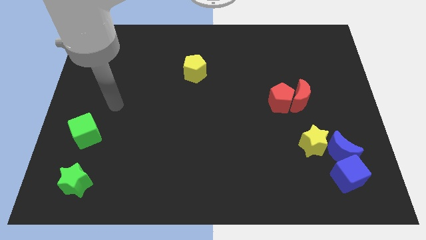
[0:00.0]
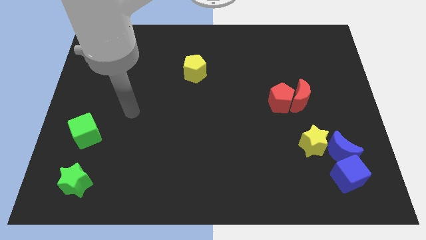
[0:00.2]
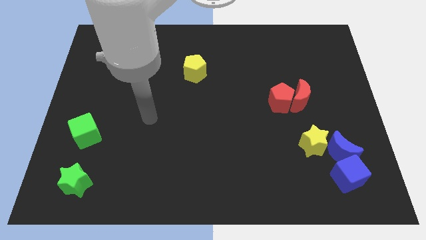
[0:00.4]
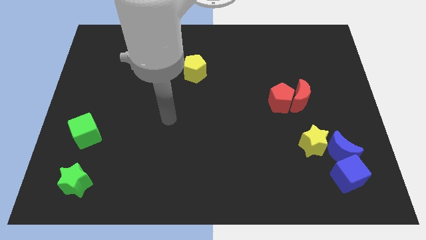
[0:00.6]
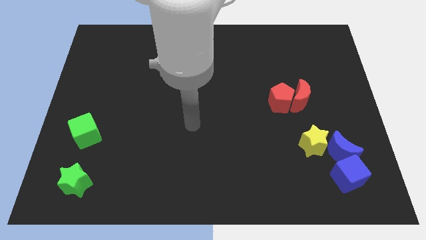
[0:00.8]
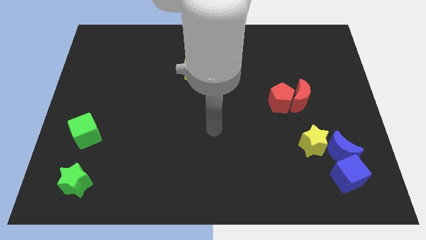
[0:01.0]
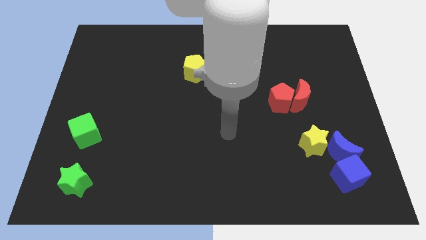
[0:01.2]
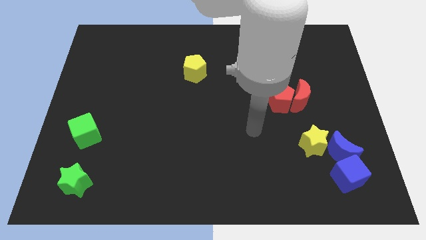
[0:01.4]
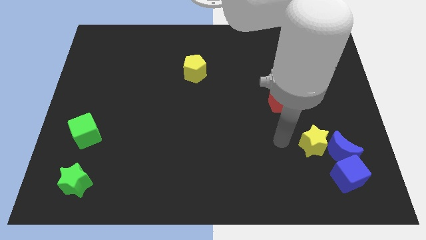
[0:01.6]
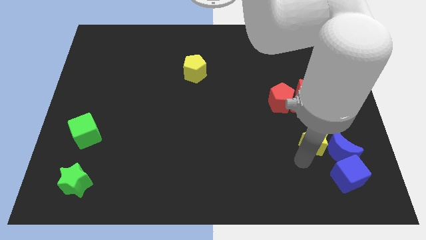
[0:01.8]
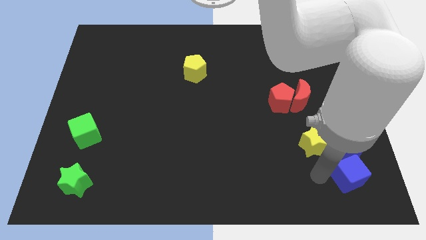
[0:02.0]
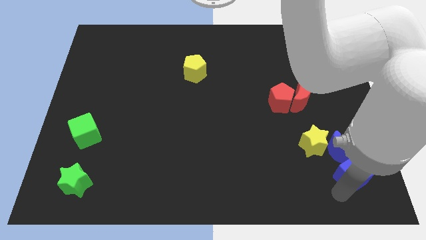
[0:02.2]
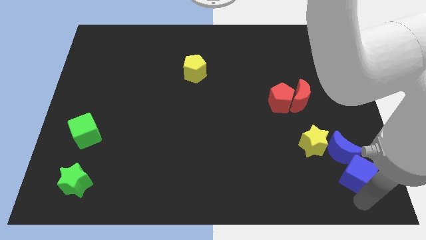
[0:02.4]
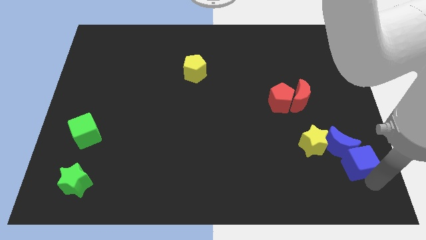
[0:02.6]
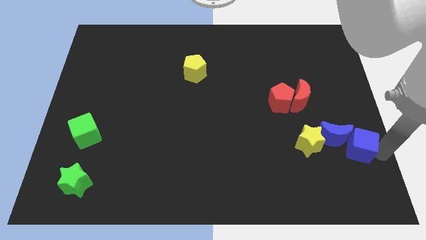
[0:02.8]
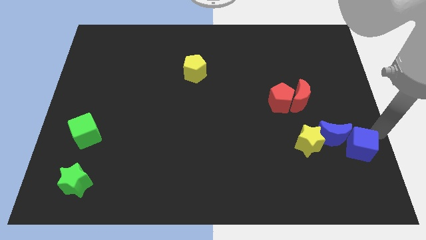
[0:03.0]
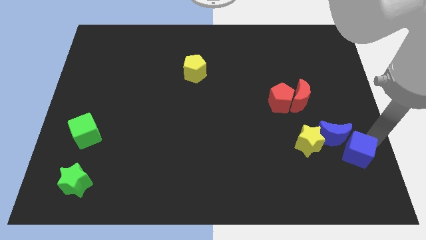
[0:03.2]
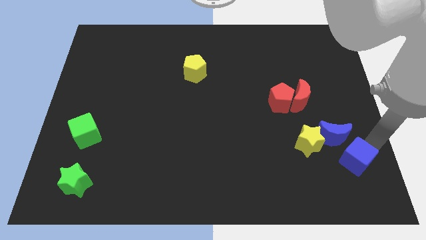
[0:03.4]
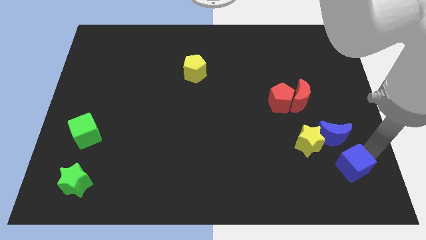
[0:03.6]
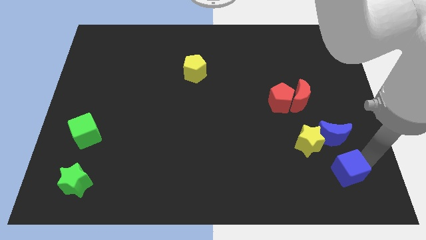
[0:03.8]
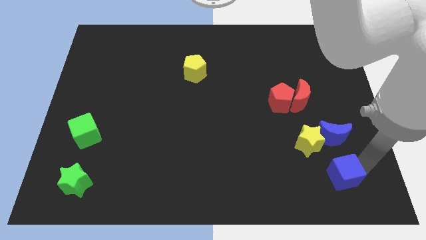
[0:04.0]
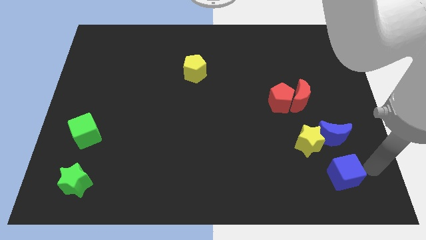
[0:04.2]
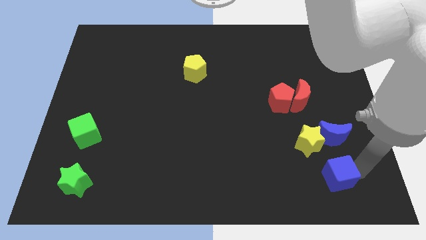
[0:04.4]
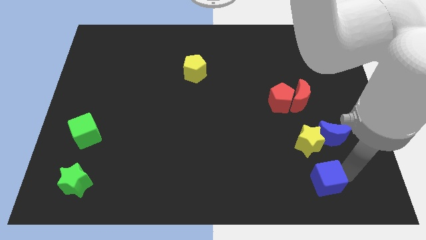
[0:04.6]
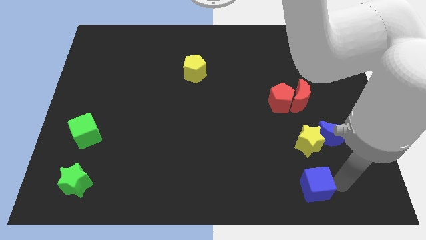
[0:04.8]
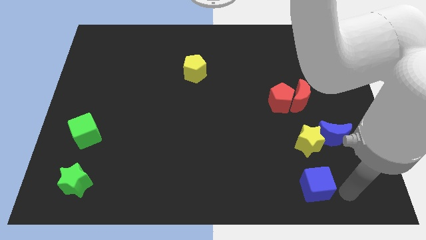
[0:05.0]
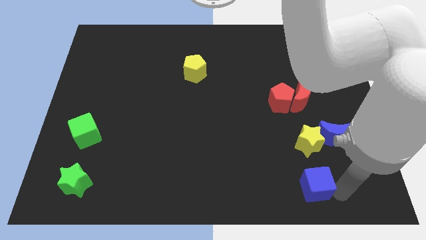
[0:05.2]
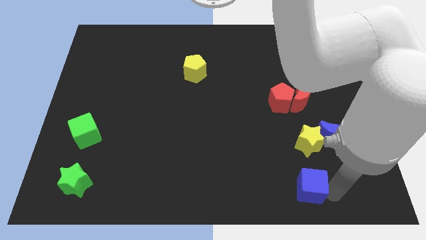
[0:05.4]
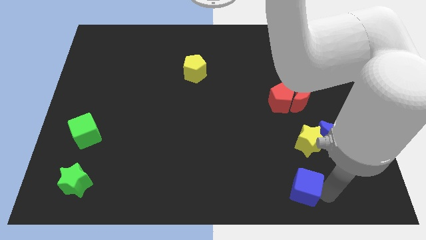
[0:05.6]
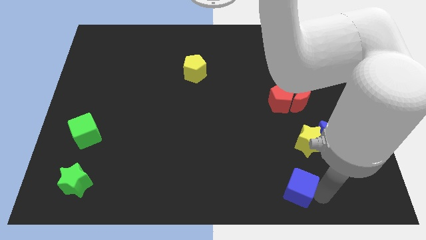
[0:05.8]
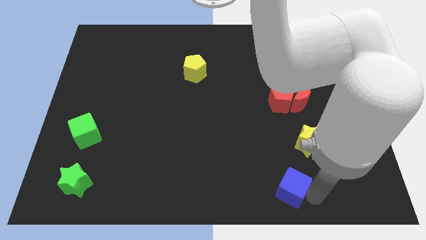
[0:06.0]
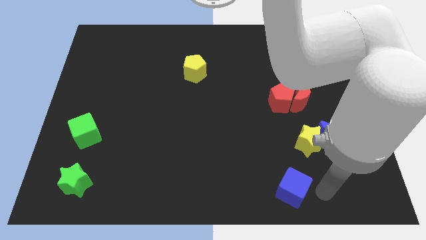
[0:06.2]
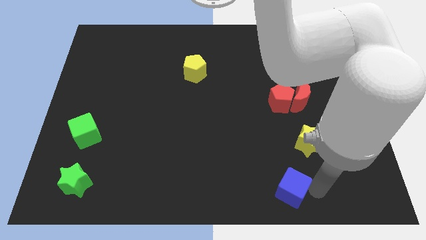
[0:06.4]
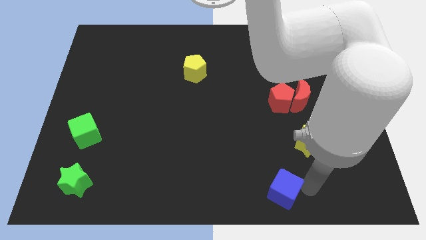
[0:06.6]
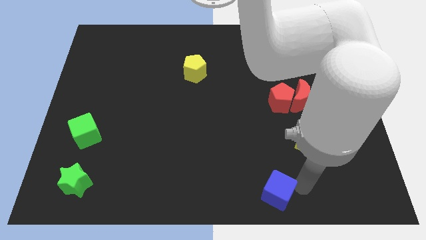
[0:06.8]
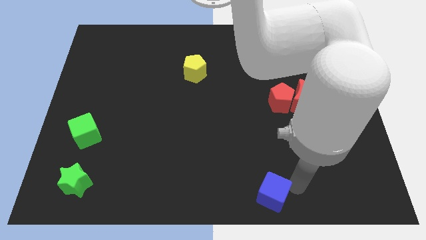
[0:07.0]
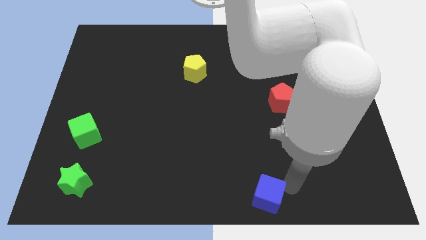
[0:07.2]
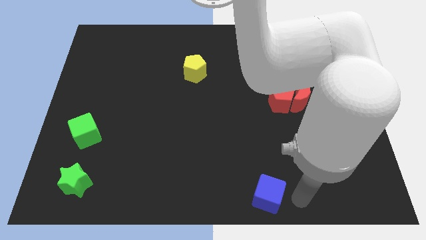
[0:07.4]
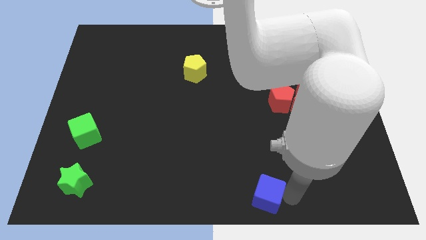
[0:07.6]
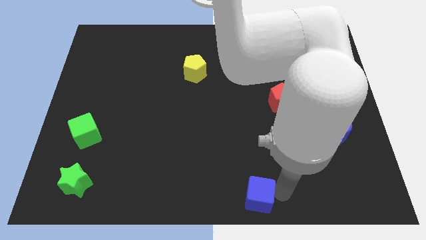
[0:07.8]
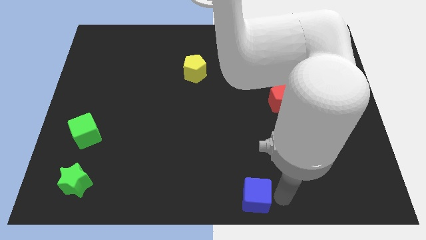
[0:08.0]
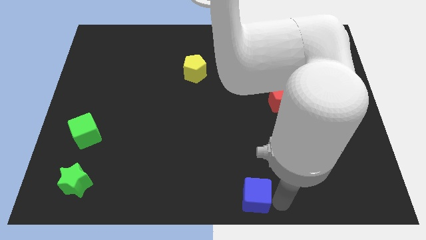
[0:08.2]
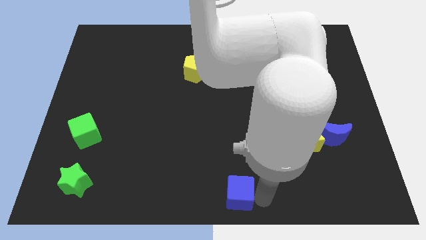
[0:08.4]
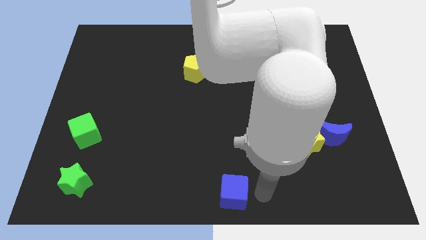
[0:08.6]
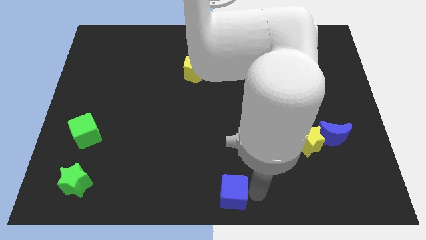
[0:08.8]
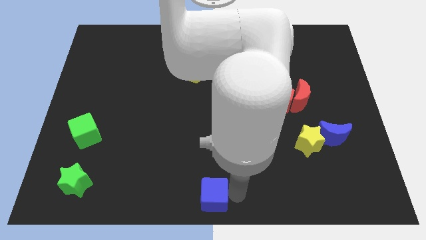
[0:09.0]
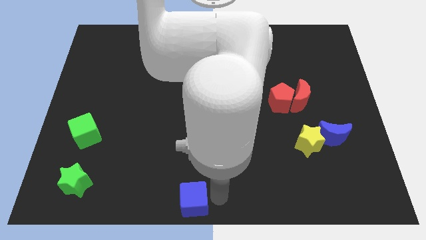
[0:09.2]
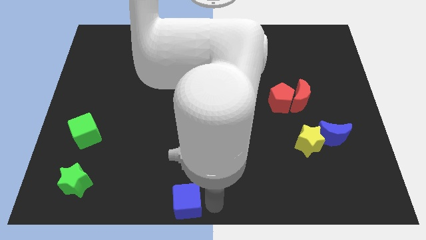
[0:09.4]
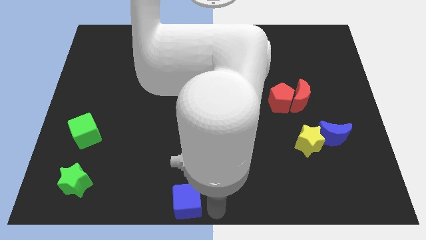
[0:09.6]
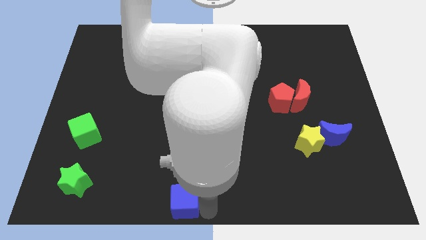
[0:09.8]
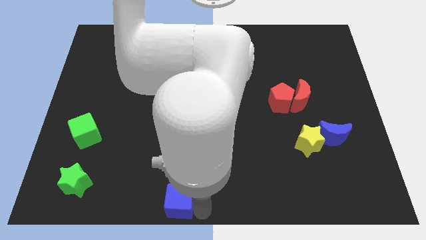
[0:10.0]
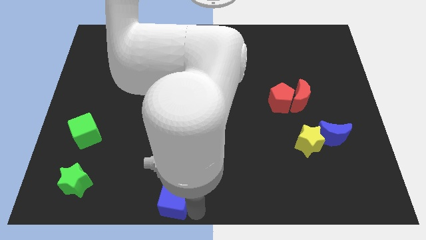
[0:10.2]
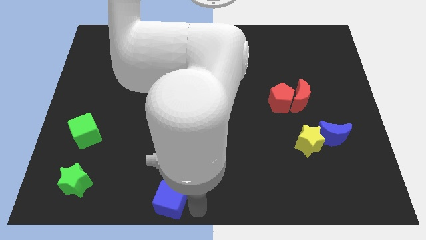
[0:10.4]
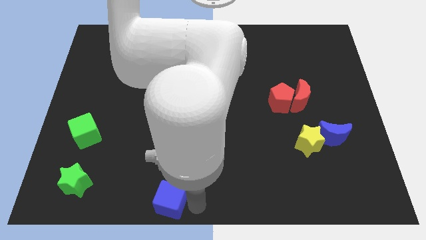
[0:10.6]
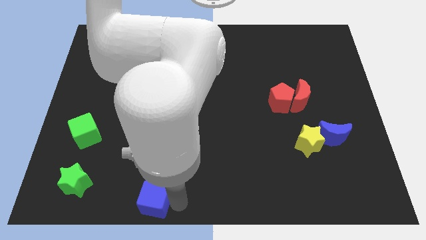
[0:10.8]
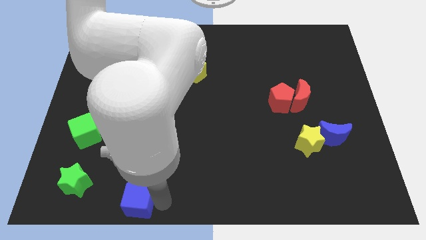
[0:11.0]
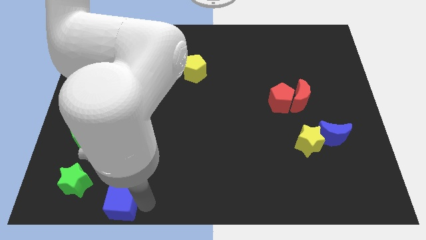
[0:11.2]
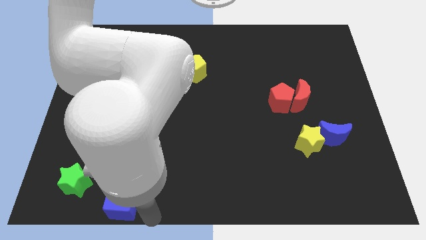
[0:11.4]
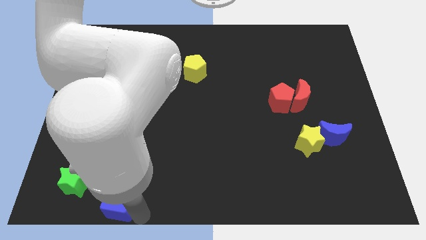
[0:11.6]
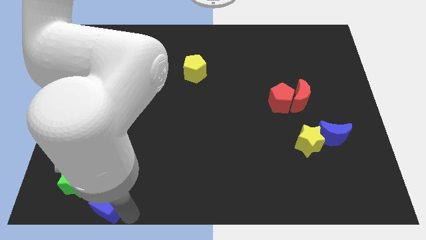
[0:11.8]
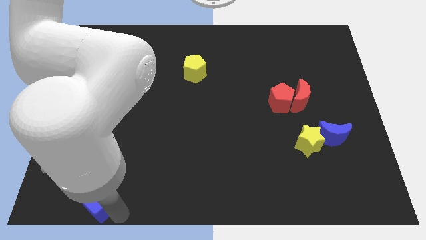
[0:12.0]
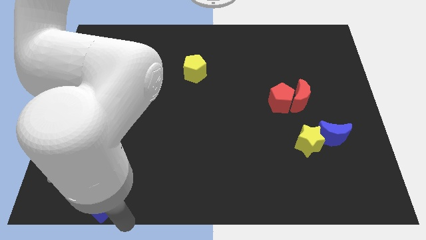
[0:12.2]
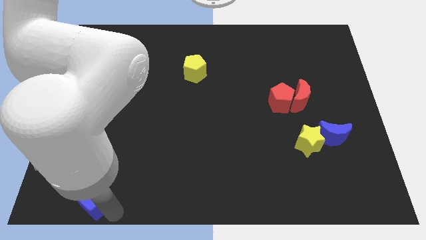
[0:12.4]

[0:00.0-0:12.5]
move the blue cube to the green star

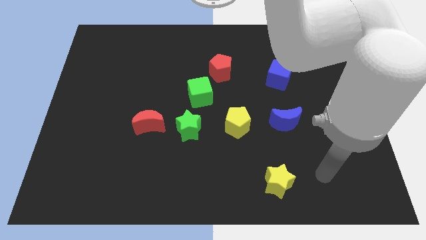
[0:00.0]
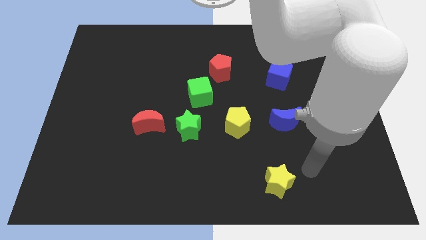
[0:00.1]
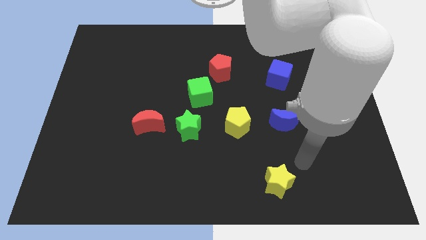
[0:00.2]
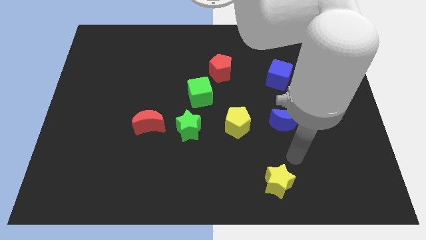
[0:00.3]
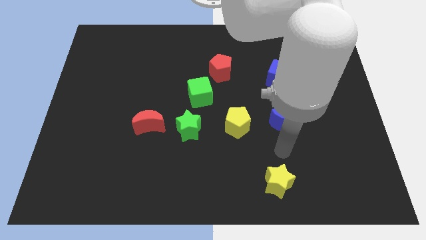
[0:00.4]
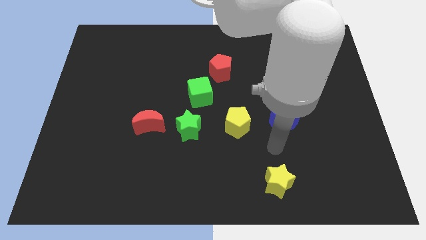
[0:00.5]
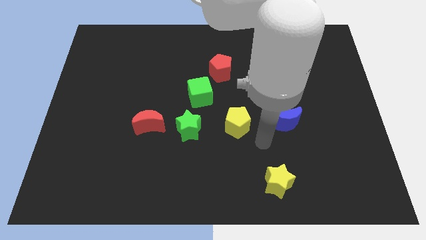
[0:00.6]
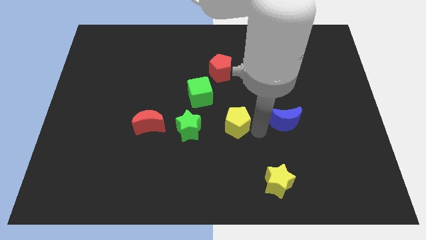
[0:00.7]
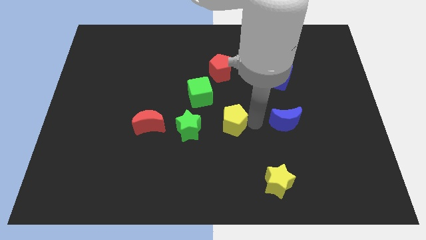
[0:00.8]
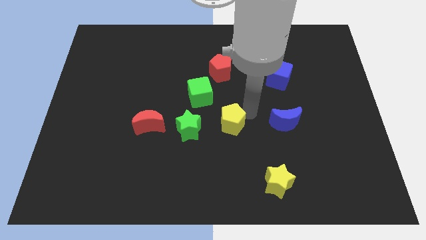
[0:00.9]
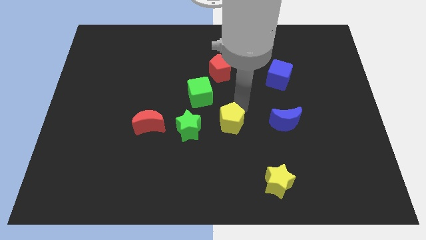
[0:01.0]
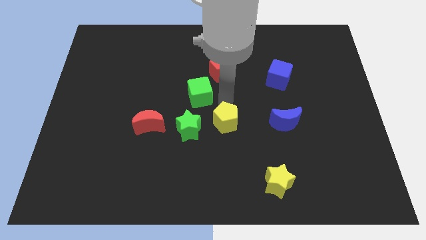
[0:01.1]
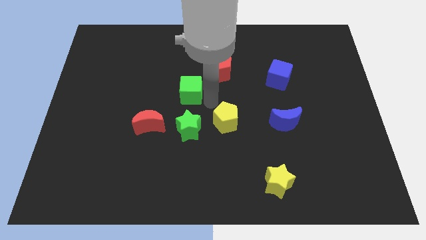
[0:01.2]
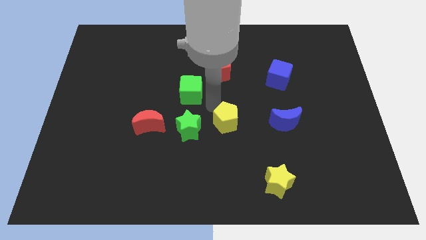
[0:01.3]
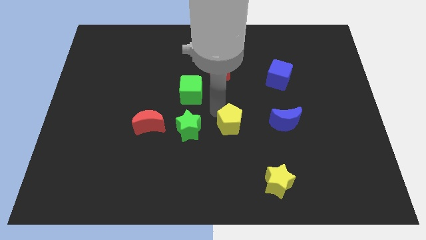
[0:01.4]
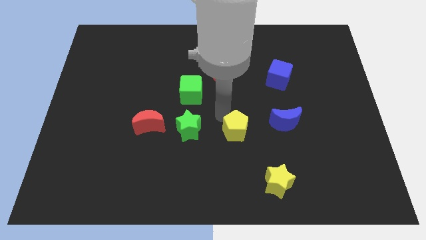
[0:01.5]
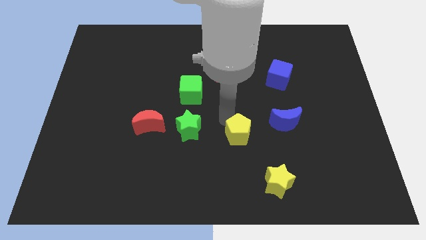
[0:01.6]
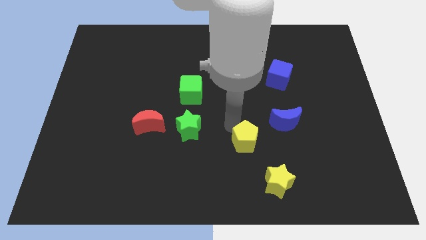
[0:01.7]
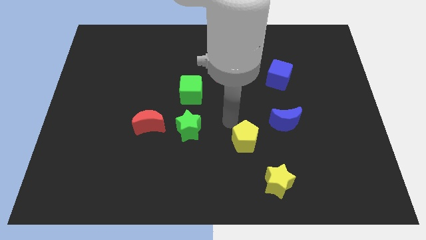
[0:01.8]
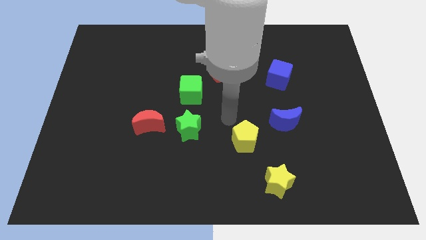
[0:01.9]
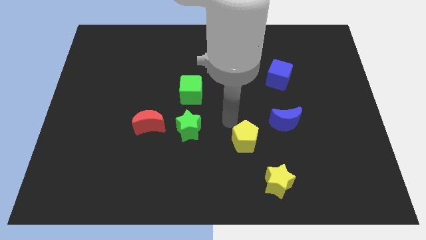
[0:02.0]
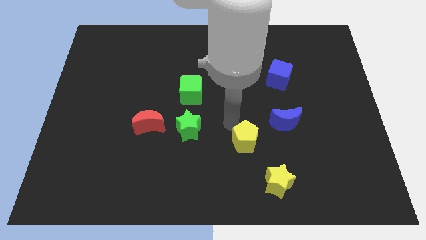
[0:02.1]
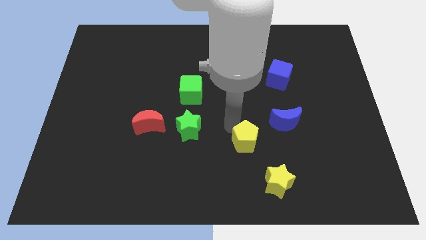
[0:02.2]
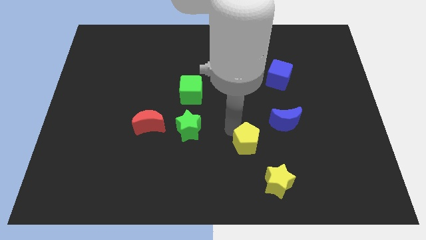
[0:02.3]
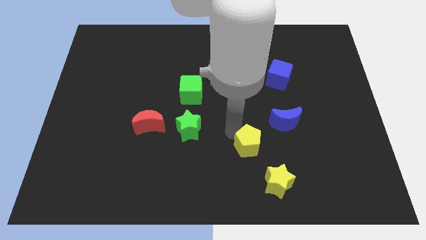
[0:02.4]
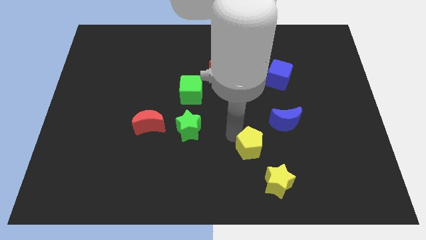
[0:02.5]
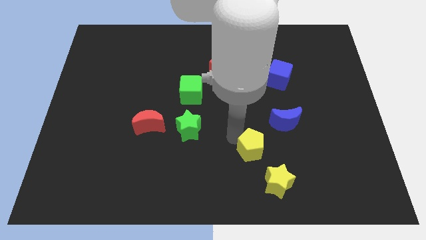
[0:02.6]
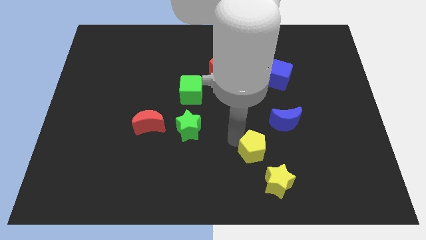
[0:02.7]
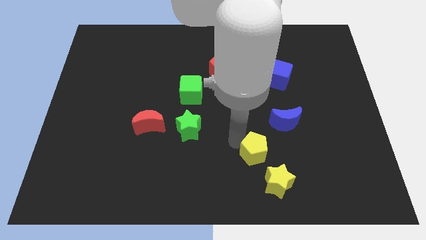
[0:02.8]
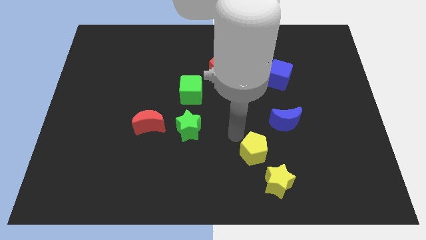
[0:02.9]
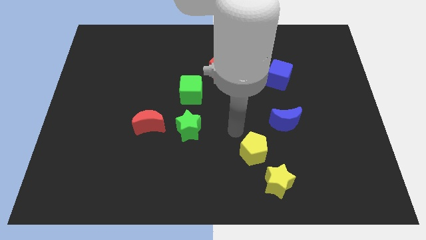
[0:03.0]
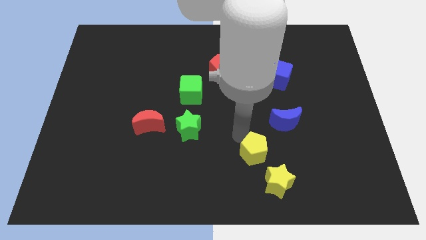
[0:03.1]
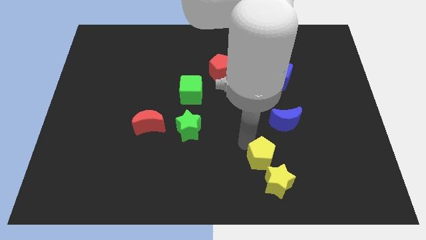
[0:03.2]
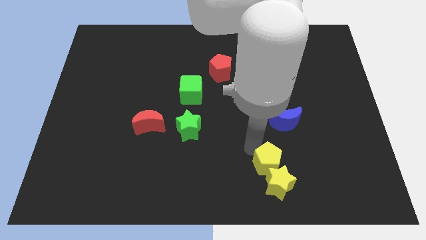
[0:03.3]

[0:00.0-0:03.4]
push the yellow pentagon towards the yellow star
